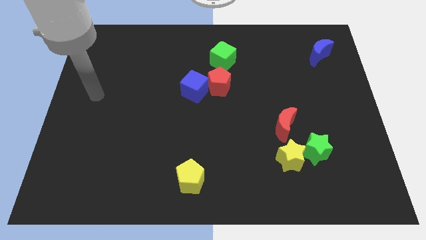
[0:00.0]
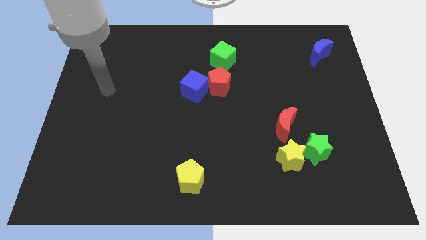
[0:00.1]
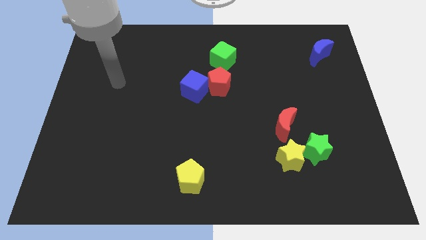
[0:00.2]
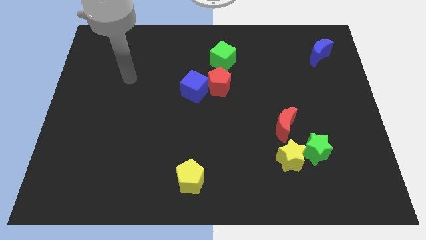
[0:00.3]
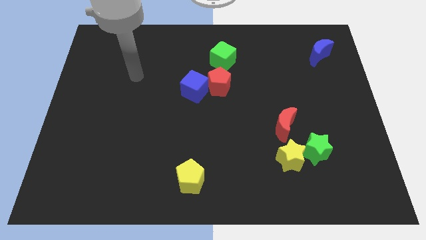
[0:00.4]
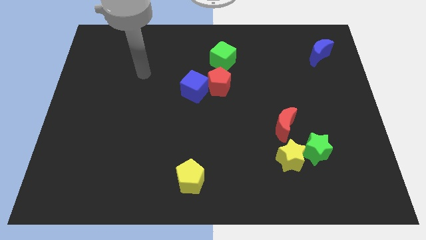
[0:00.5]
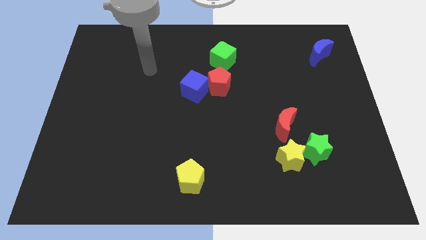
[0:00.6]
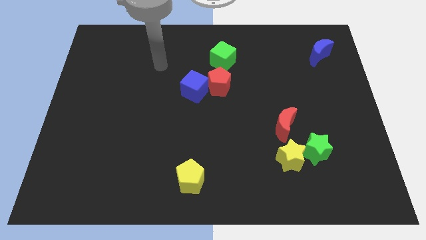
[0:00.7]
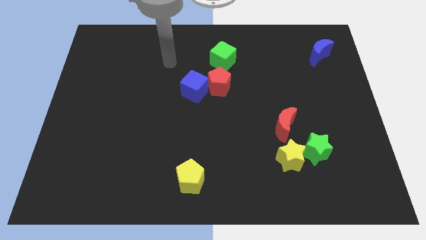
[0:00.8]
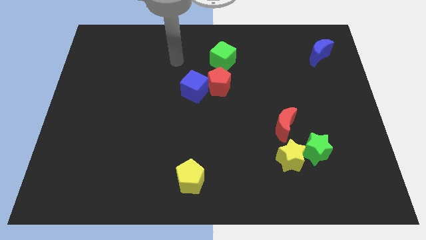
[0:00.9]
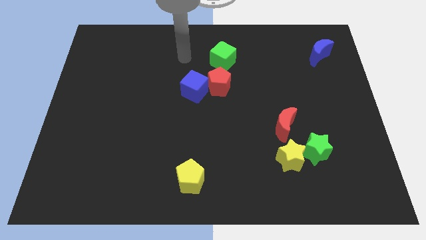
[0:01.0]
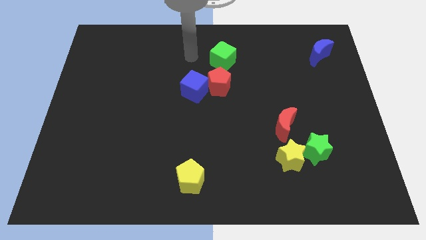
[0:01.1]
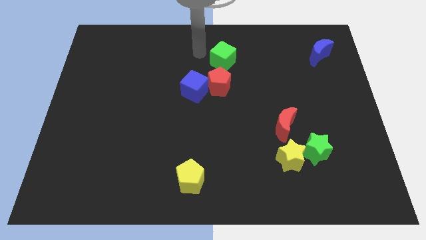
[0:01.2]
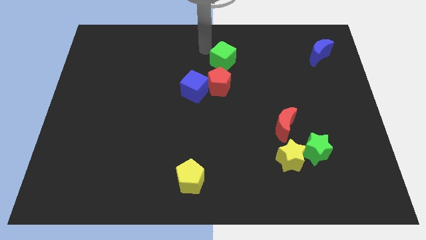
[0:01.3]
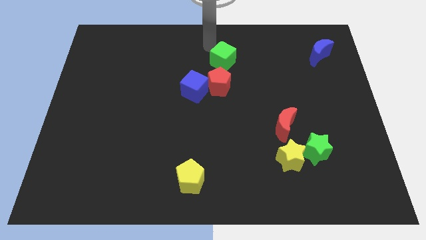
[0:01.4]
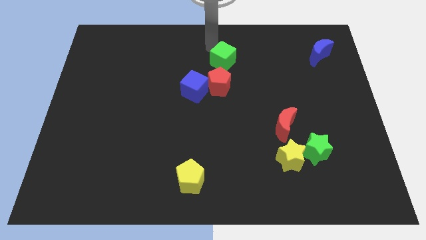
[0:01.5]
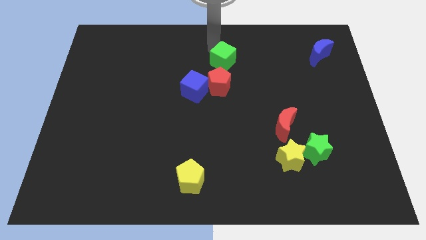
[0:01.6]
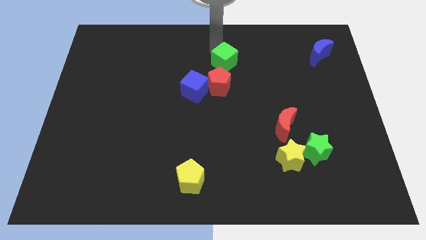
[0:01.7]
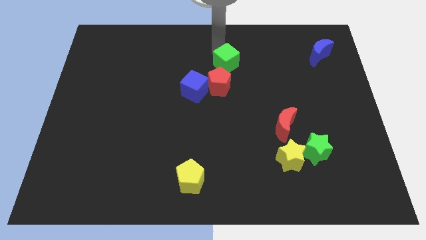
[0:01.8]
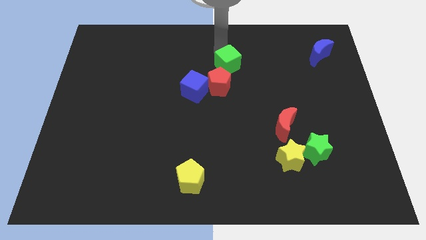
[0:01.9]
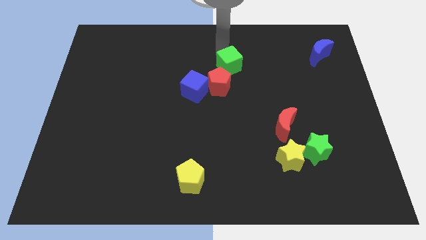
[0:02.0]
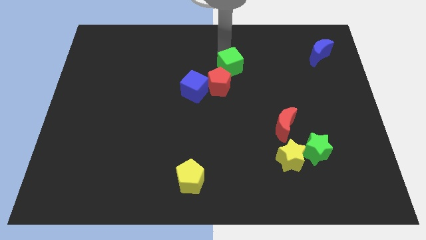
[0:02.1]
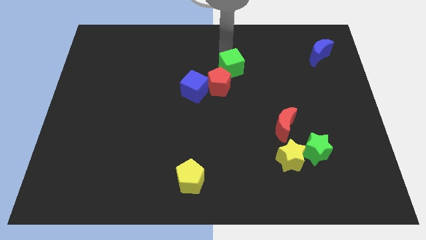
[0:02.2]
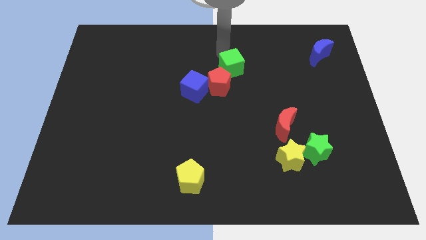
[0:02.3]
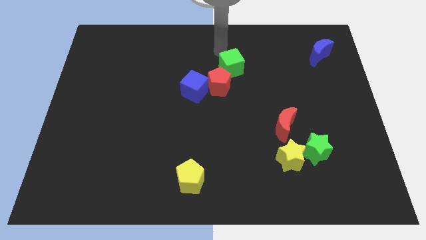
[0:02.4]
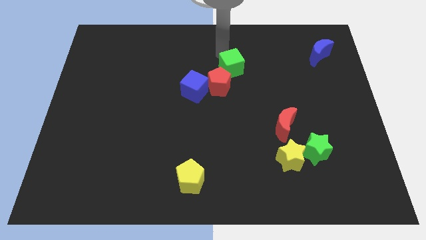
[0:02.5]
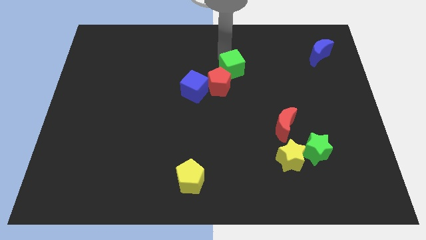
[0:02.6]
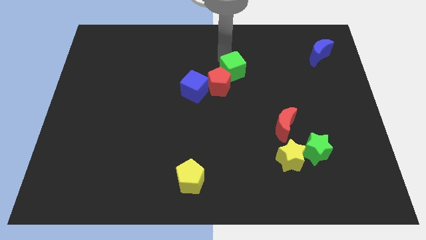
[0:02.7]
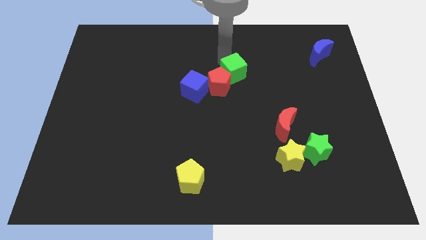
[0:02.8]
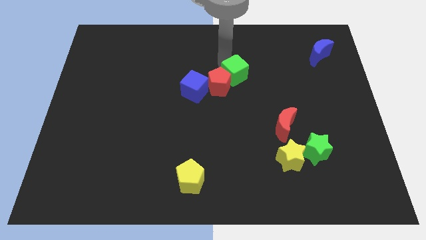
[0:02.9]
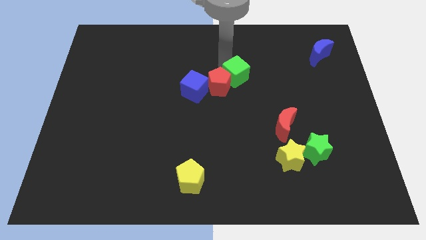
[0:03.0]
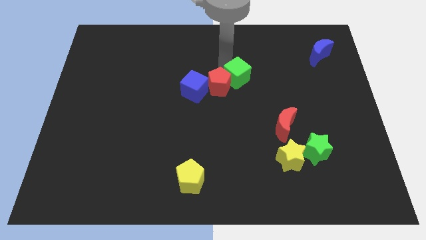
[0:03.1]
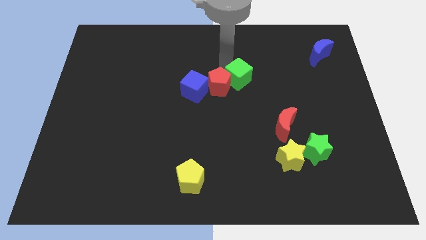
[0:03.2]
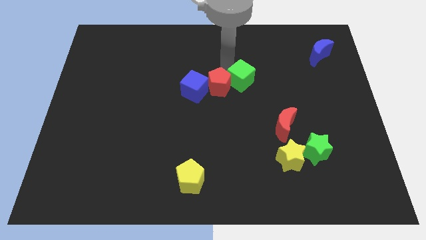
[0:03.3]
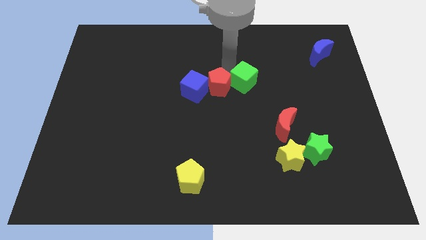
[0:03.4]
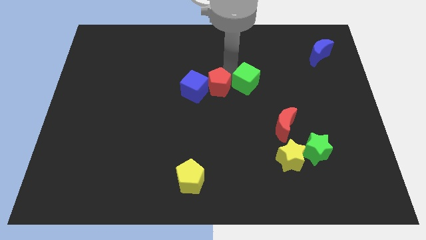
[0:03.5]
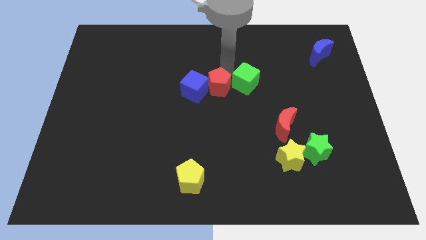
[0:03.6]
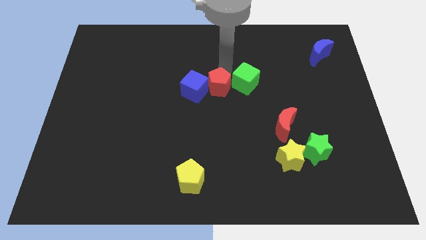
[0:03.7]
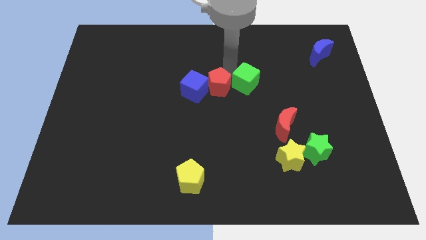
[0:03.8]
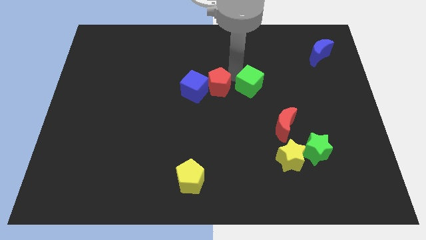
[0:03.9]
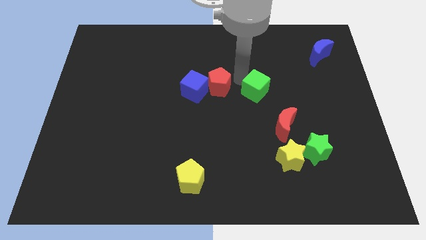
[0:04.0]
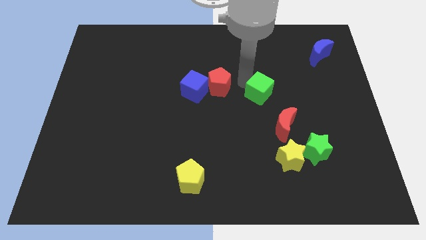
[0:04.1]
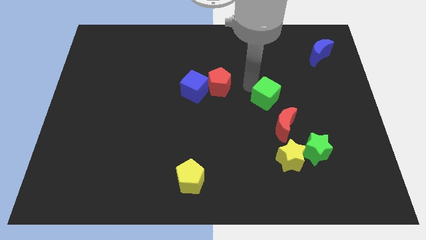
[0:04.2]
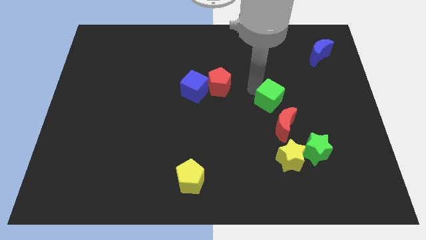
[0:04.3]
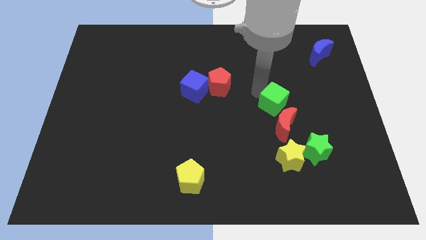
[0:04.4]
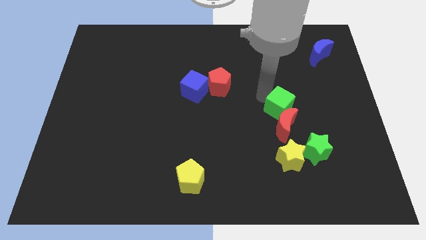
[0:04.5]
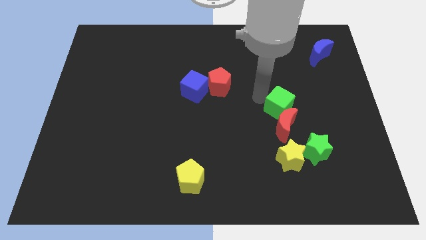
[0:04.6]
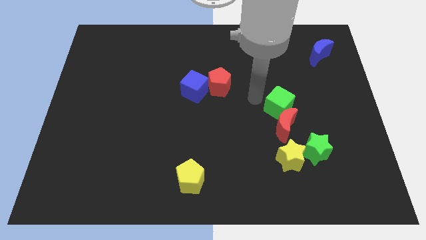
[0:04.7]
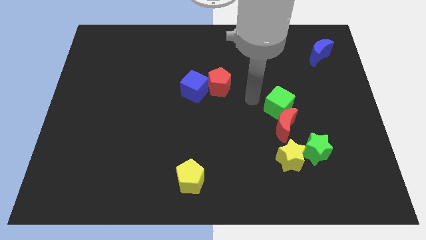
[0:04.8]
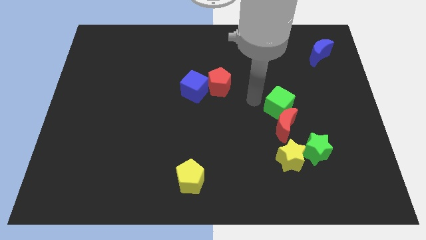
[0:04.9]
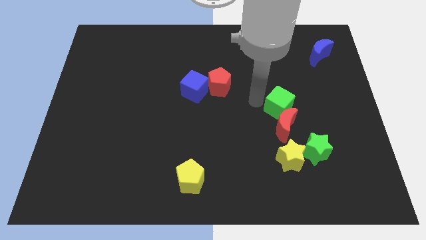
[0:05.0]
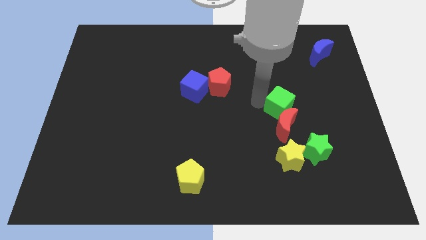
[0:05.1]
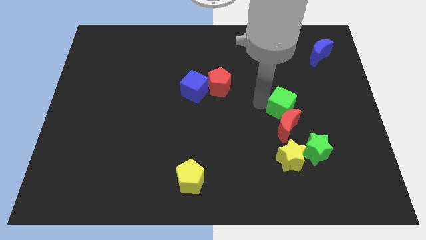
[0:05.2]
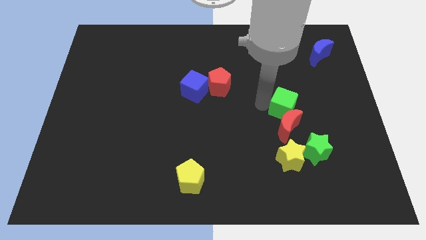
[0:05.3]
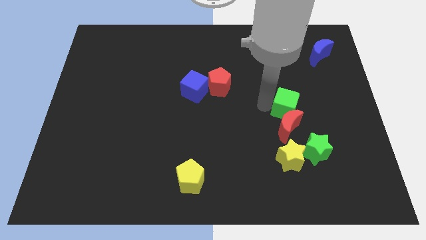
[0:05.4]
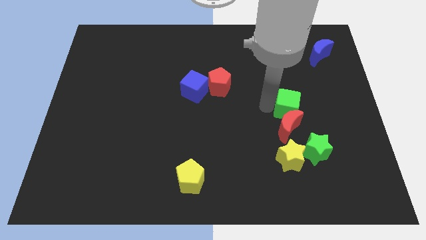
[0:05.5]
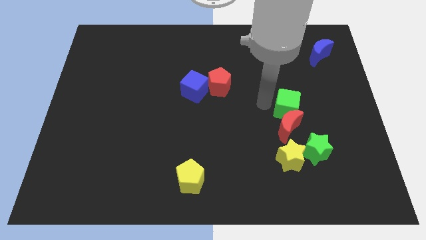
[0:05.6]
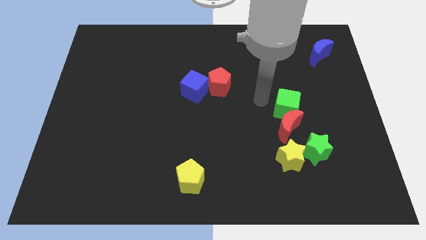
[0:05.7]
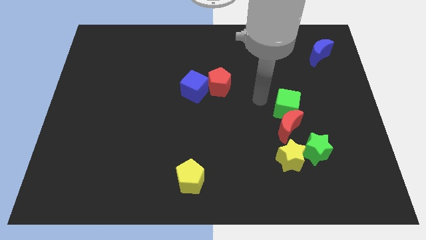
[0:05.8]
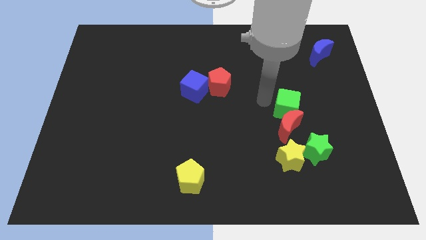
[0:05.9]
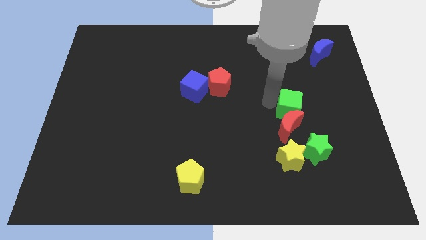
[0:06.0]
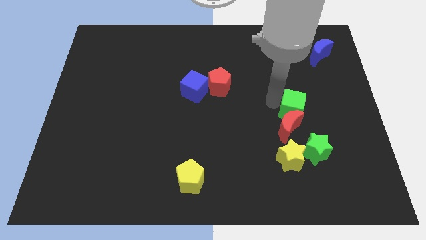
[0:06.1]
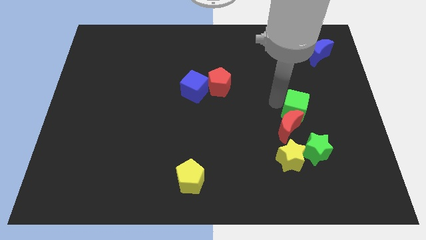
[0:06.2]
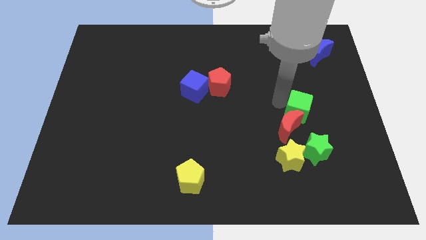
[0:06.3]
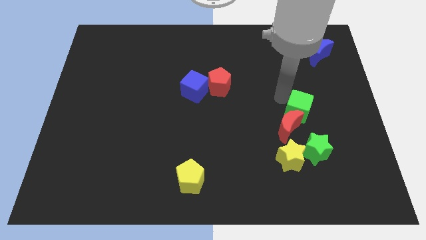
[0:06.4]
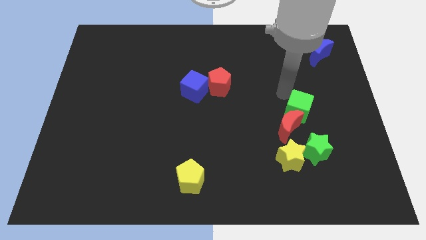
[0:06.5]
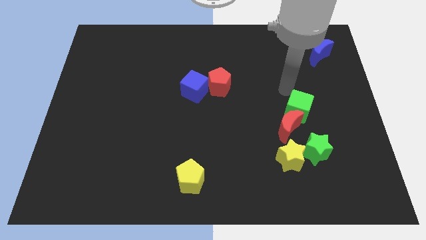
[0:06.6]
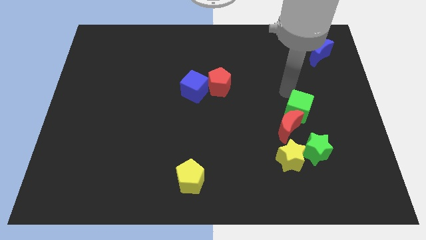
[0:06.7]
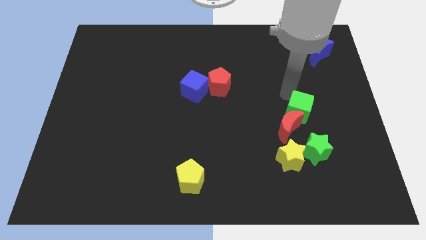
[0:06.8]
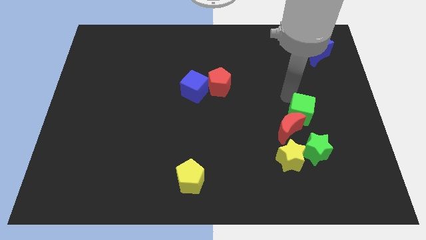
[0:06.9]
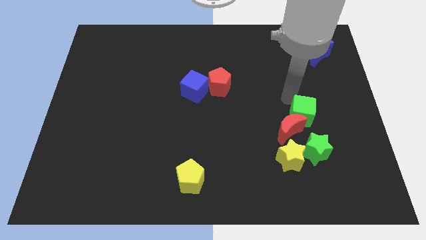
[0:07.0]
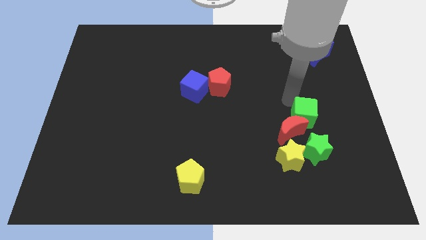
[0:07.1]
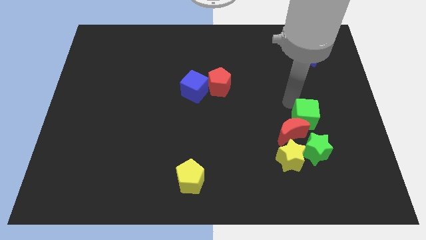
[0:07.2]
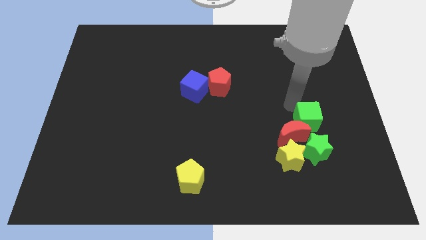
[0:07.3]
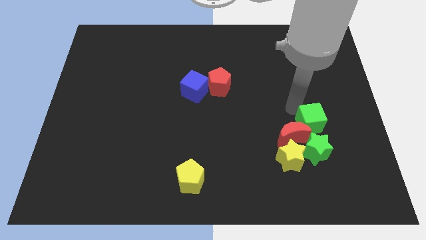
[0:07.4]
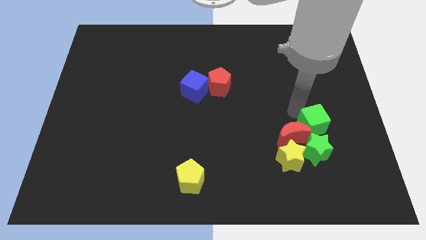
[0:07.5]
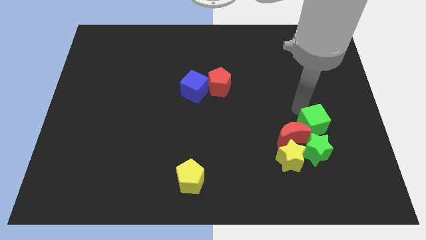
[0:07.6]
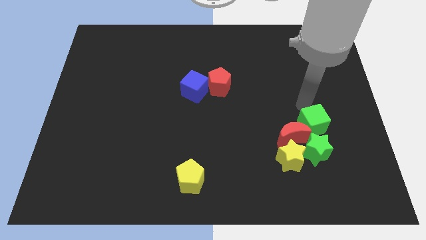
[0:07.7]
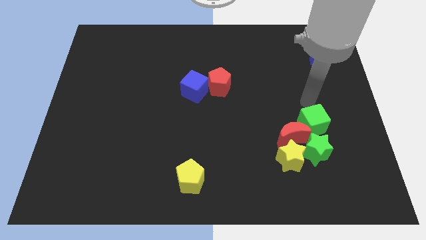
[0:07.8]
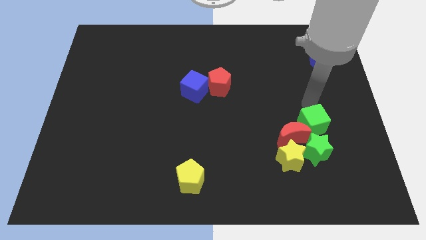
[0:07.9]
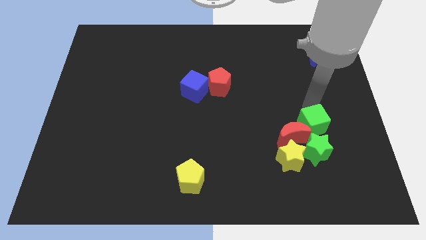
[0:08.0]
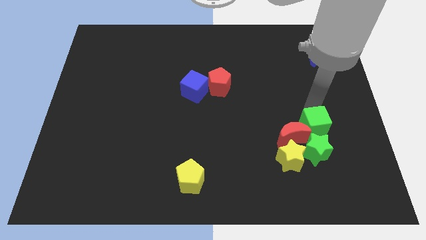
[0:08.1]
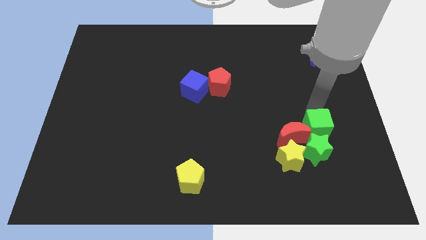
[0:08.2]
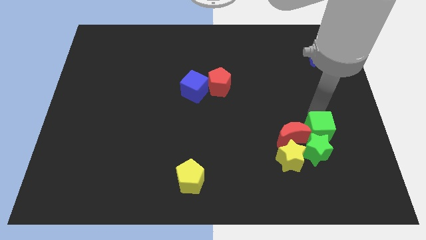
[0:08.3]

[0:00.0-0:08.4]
put the green cube towards the green star
